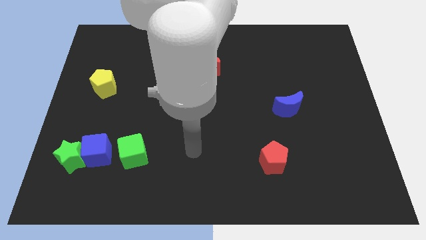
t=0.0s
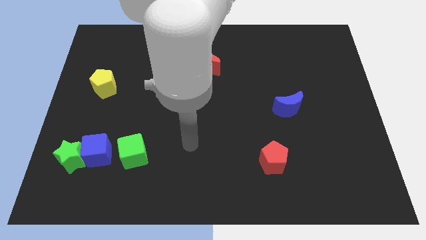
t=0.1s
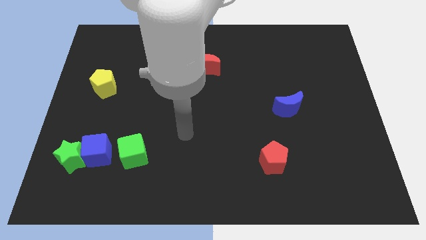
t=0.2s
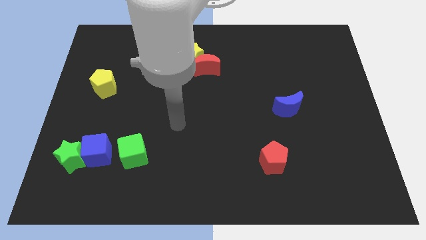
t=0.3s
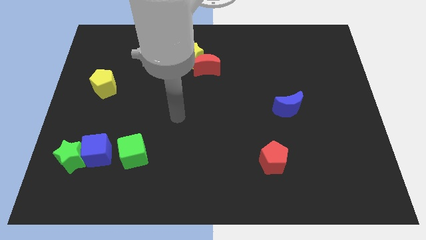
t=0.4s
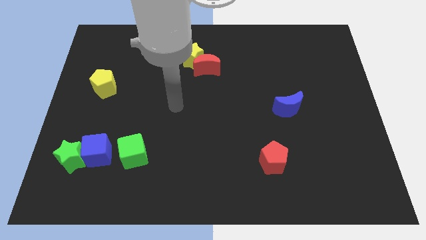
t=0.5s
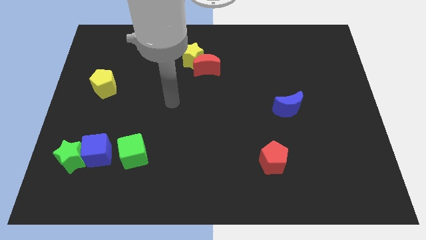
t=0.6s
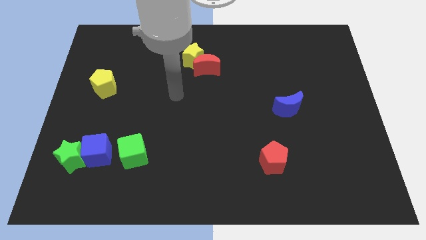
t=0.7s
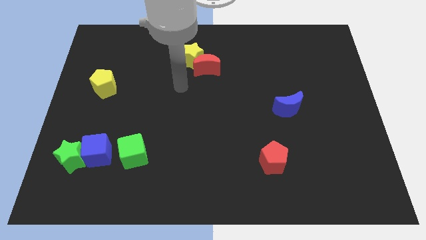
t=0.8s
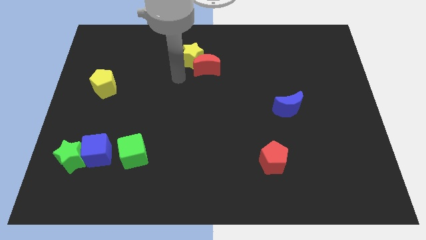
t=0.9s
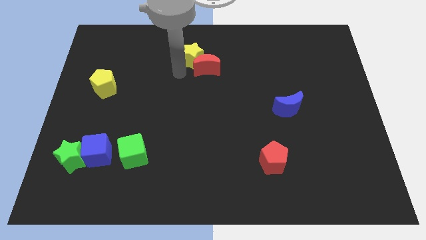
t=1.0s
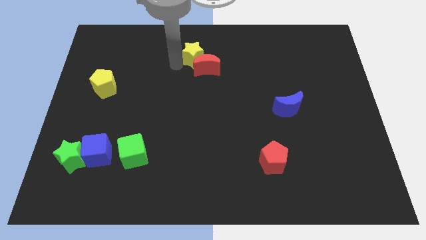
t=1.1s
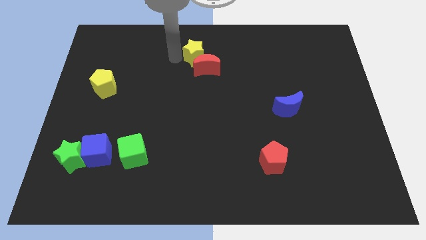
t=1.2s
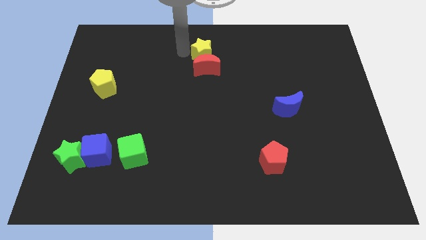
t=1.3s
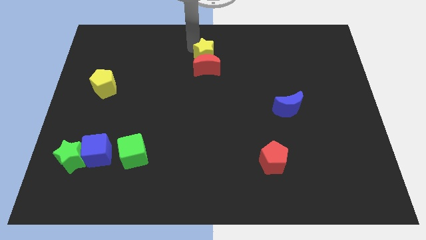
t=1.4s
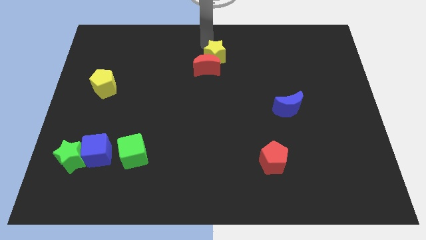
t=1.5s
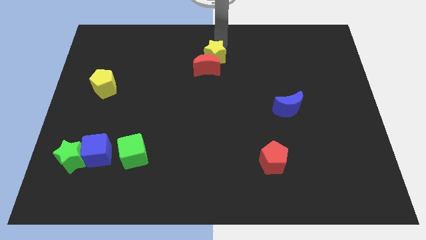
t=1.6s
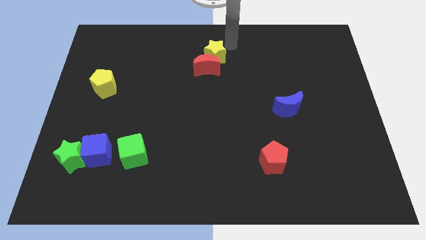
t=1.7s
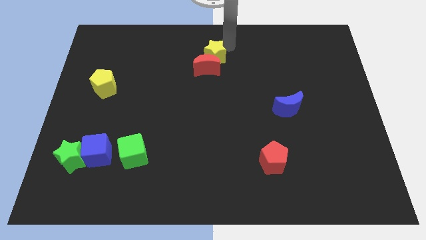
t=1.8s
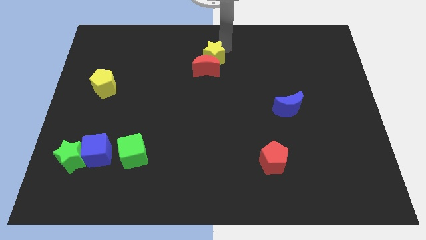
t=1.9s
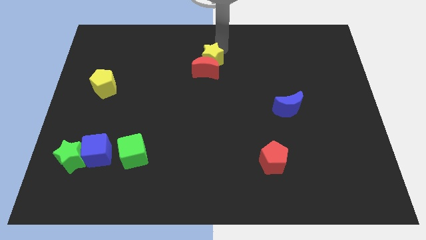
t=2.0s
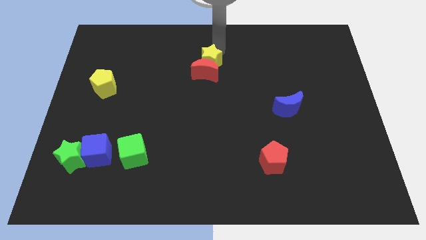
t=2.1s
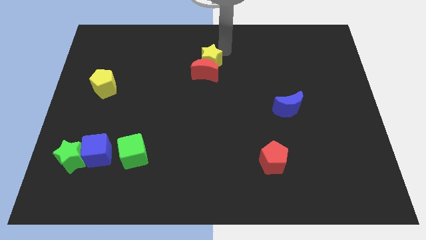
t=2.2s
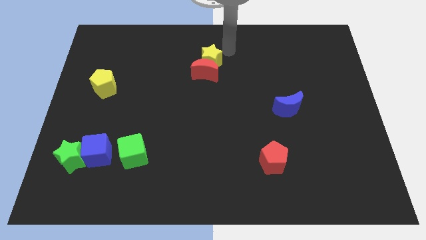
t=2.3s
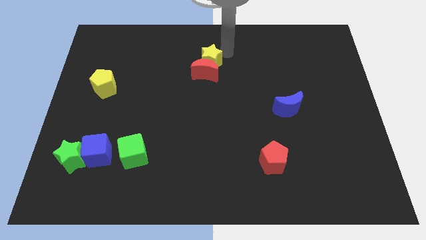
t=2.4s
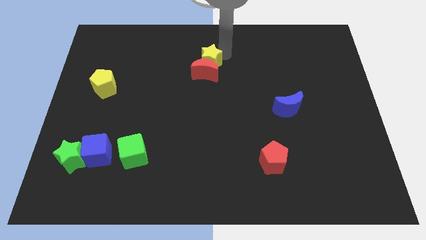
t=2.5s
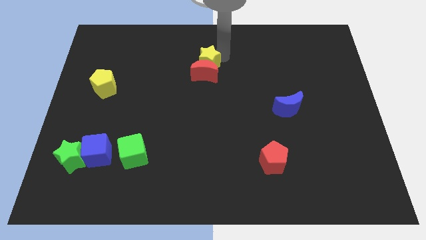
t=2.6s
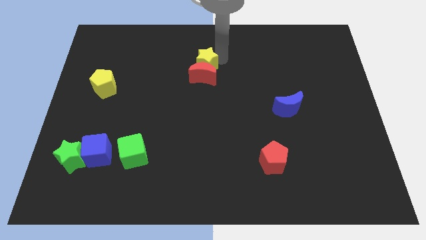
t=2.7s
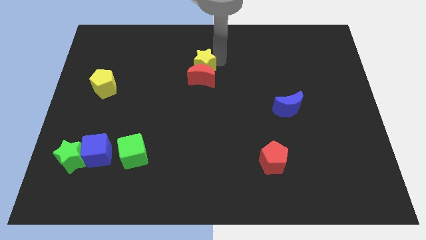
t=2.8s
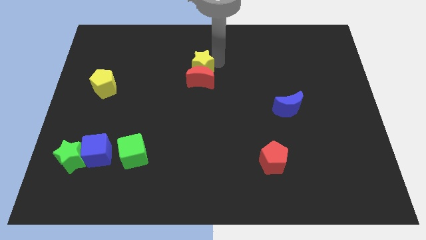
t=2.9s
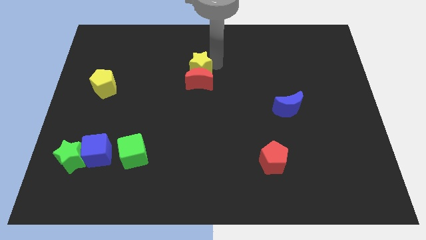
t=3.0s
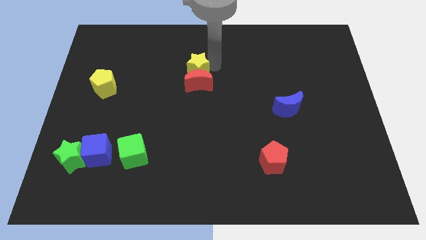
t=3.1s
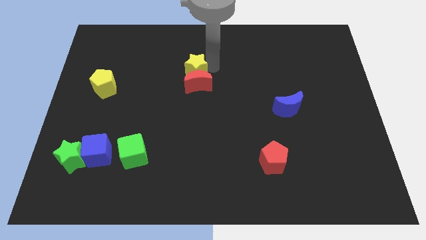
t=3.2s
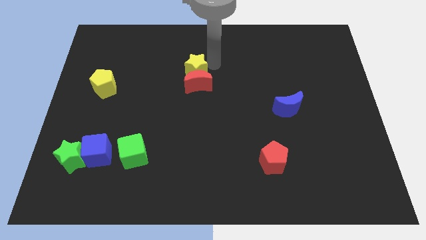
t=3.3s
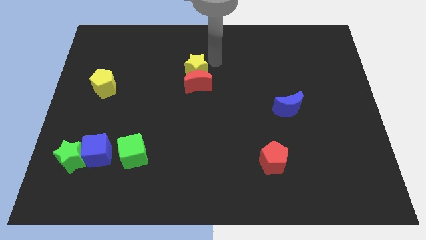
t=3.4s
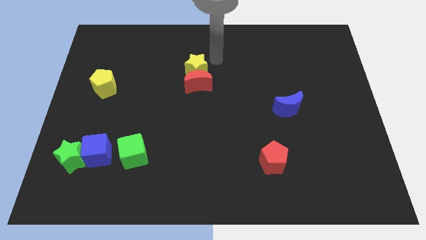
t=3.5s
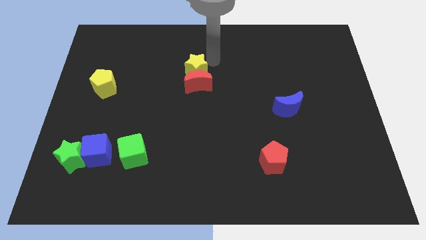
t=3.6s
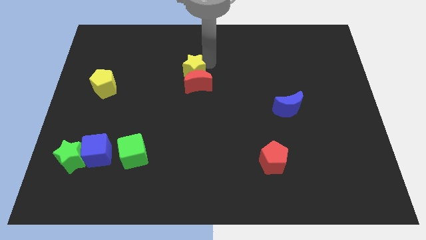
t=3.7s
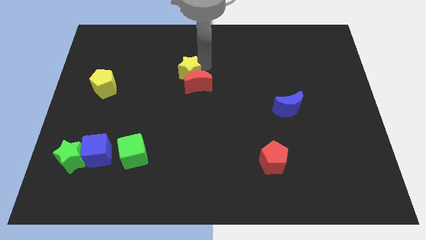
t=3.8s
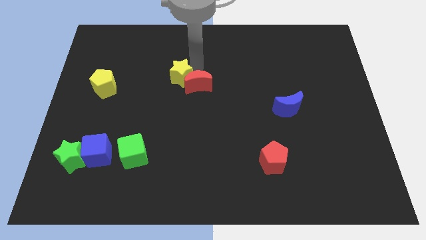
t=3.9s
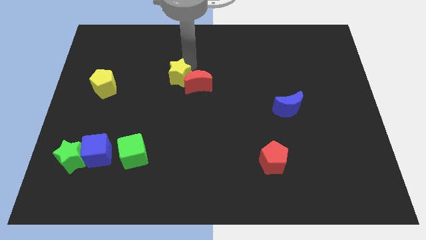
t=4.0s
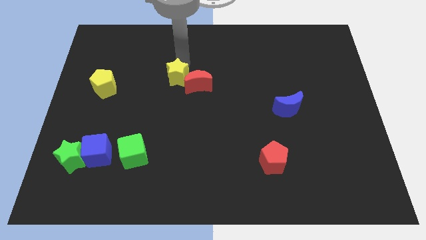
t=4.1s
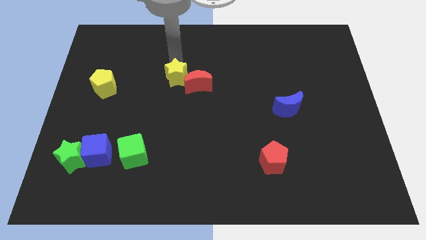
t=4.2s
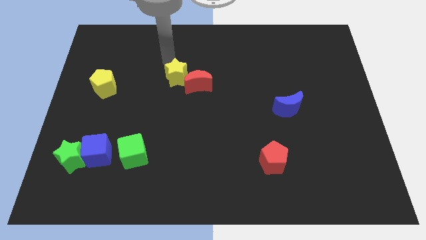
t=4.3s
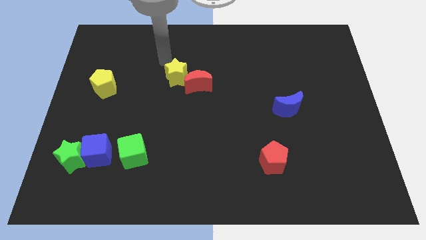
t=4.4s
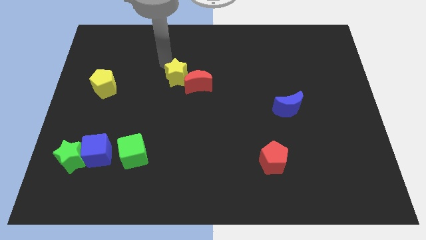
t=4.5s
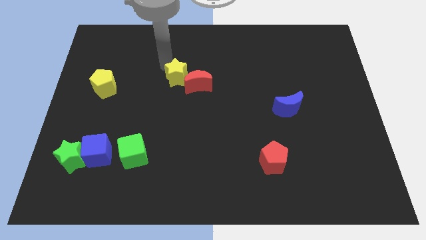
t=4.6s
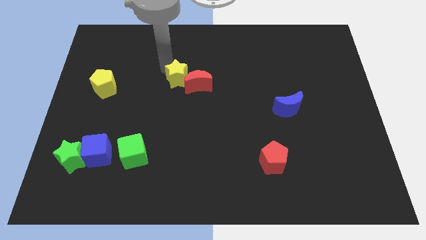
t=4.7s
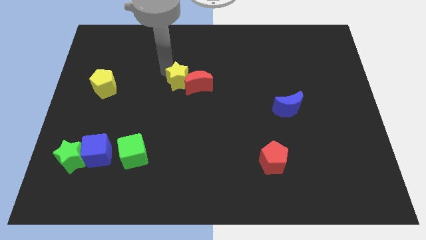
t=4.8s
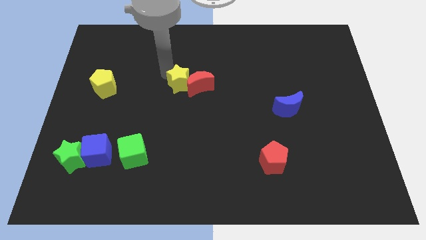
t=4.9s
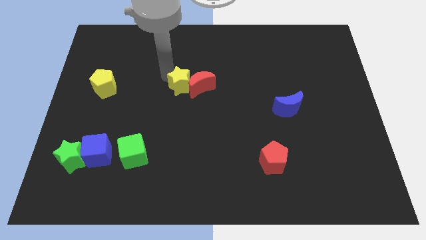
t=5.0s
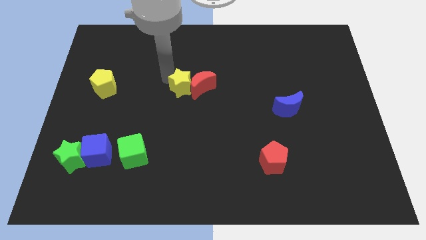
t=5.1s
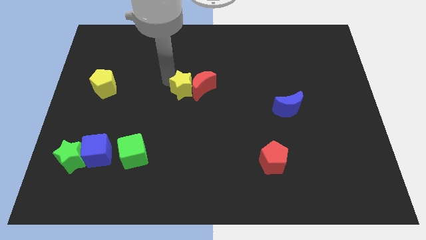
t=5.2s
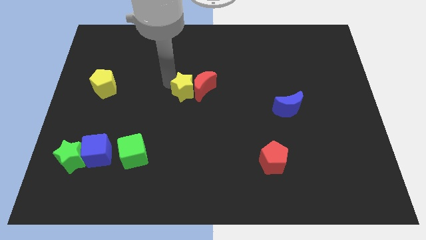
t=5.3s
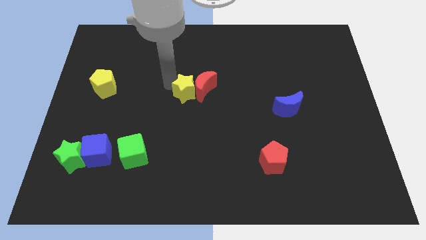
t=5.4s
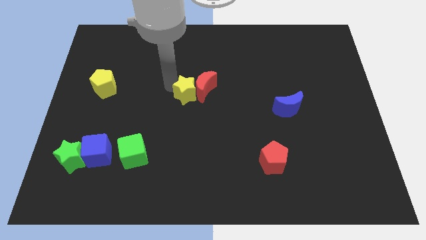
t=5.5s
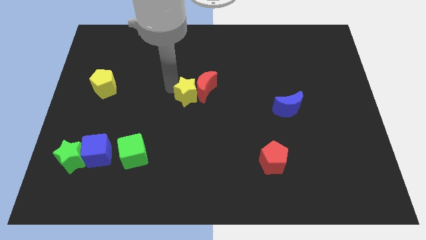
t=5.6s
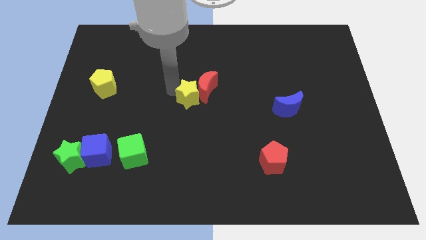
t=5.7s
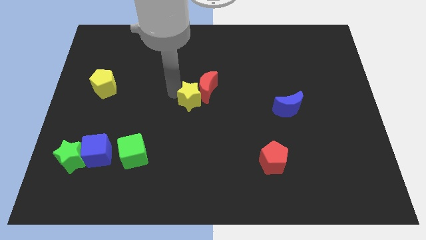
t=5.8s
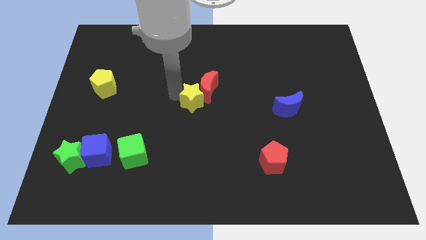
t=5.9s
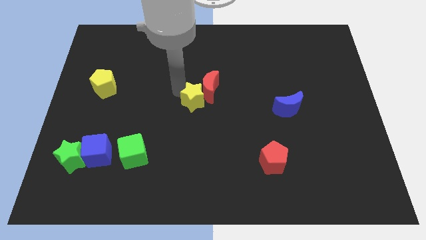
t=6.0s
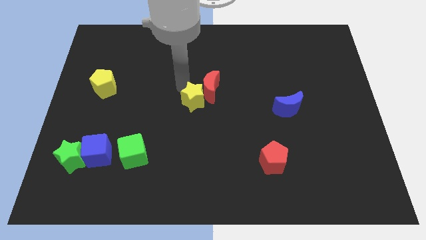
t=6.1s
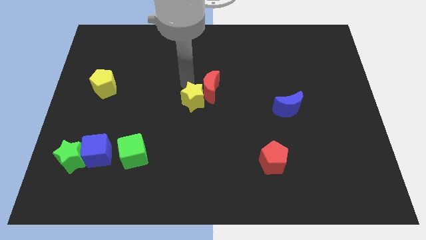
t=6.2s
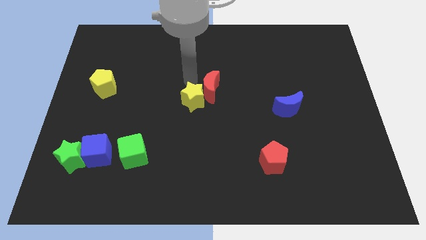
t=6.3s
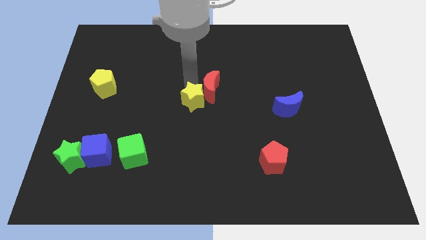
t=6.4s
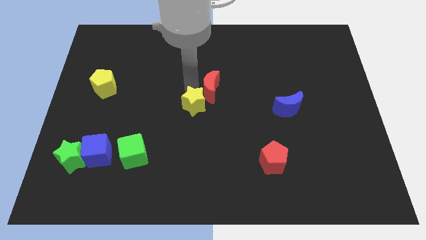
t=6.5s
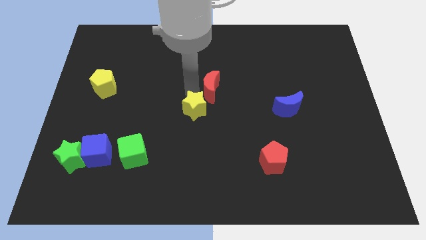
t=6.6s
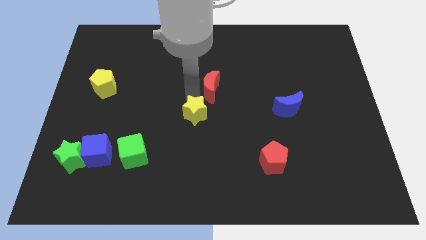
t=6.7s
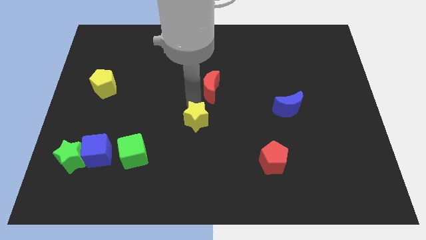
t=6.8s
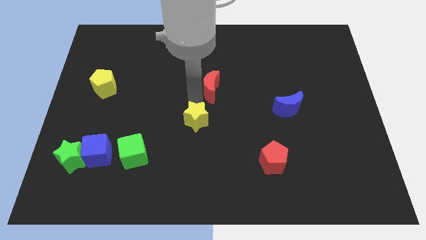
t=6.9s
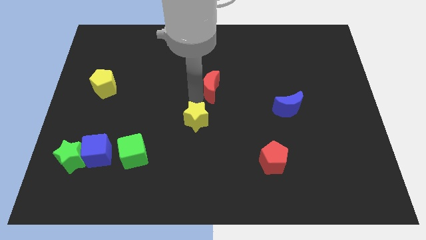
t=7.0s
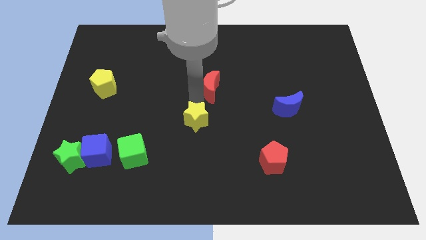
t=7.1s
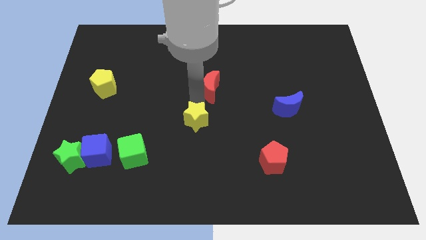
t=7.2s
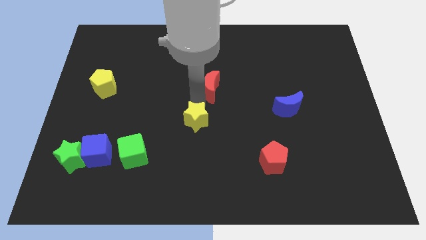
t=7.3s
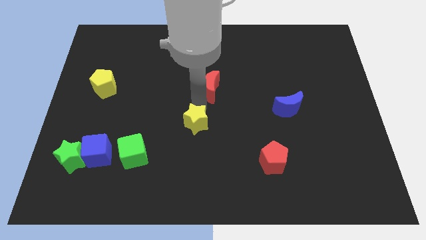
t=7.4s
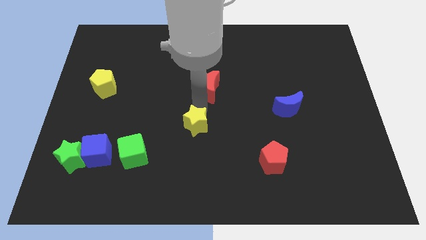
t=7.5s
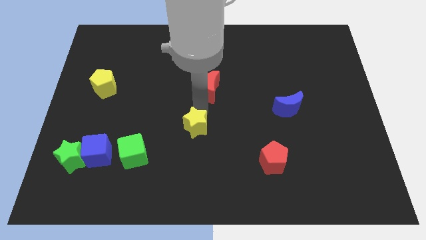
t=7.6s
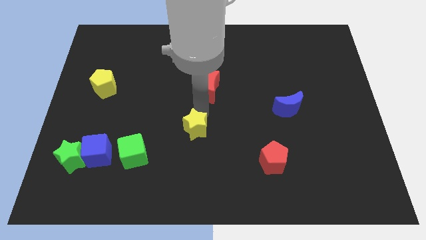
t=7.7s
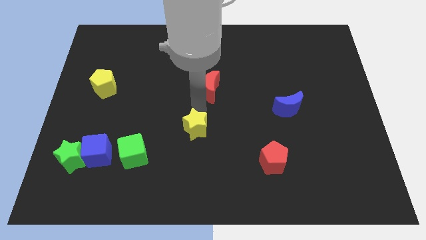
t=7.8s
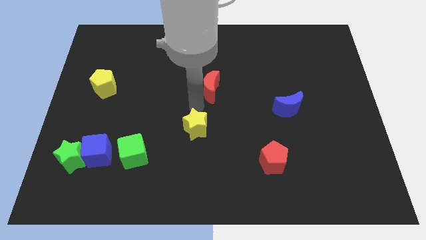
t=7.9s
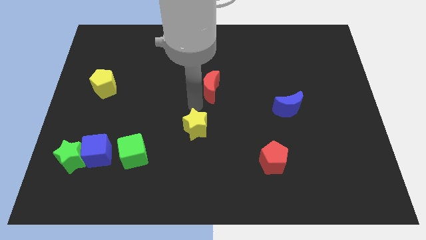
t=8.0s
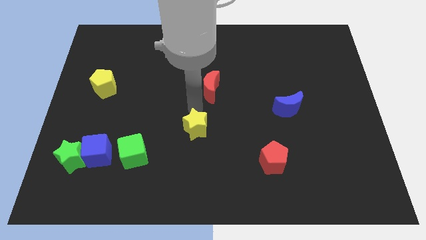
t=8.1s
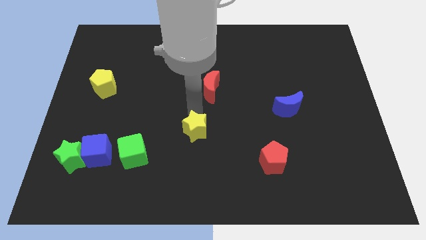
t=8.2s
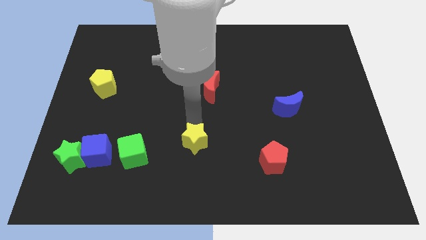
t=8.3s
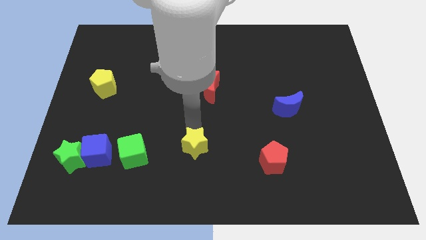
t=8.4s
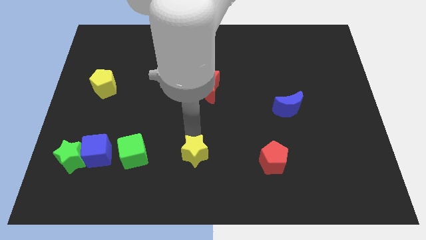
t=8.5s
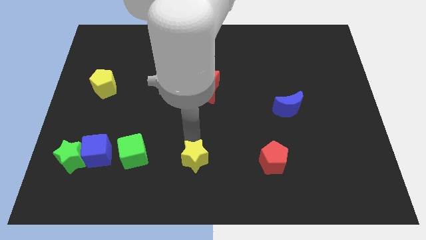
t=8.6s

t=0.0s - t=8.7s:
push the yellow star to the bottom side
